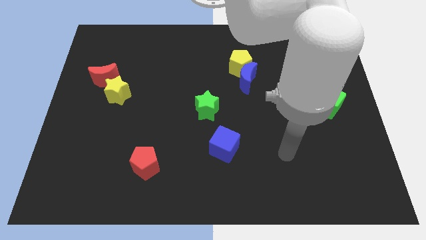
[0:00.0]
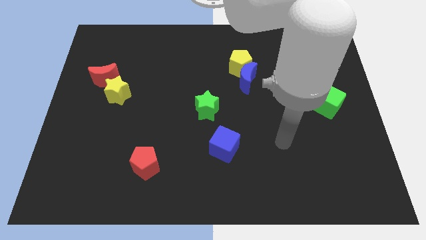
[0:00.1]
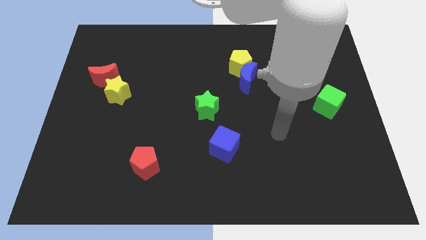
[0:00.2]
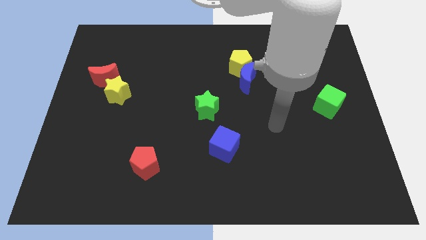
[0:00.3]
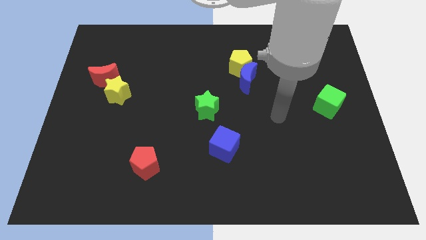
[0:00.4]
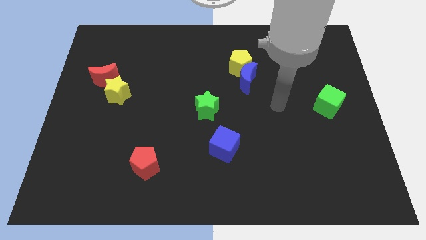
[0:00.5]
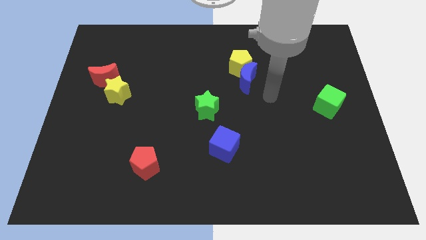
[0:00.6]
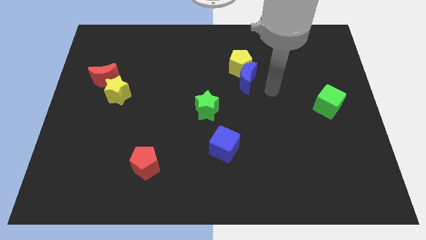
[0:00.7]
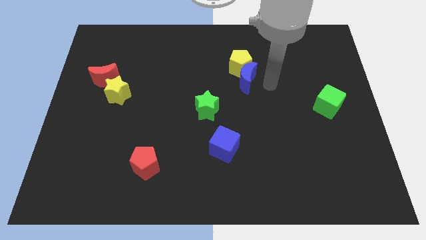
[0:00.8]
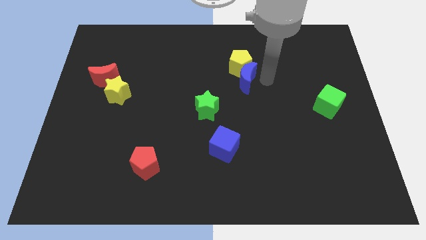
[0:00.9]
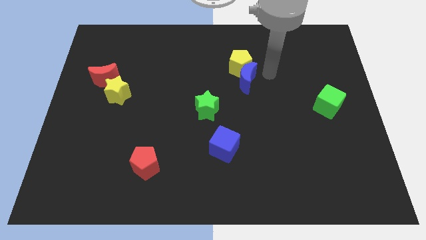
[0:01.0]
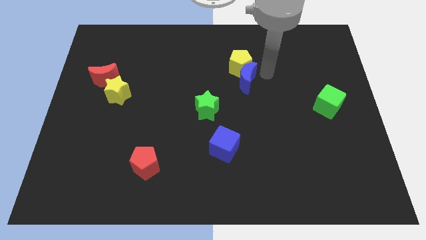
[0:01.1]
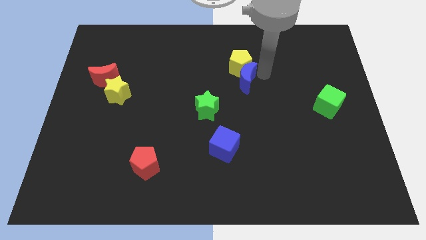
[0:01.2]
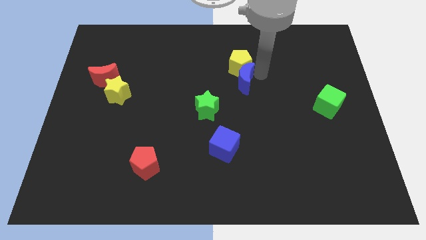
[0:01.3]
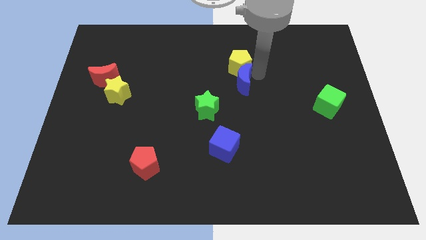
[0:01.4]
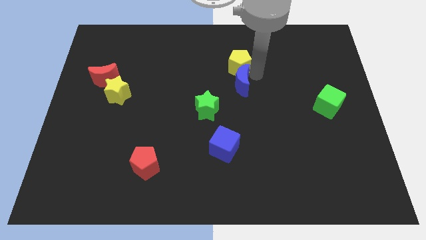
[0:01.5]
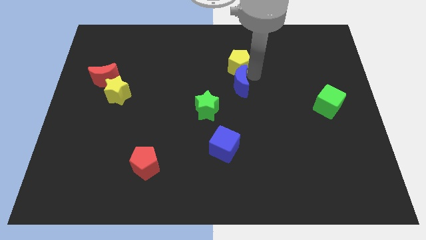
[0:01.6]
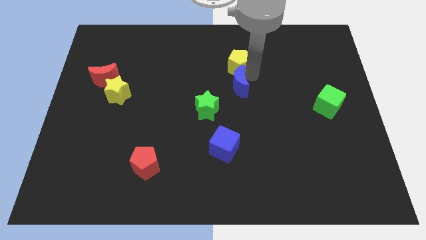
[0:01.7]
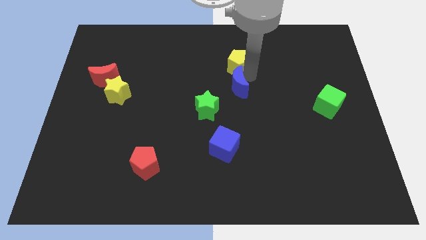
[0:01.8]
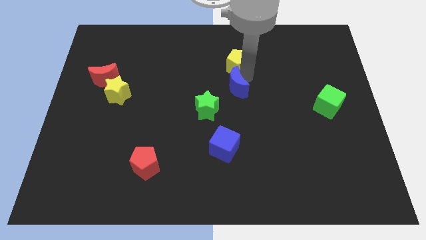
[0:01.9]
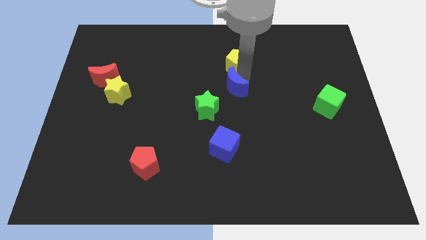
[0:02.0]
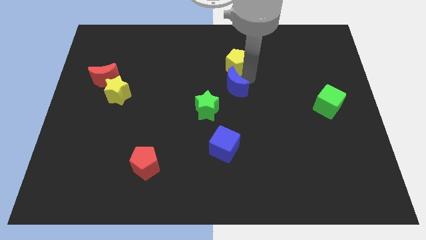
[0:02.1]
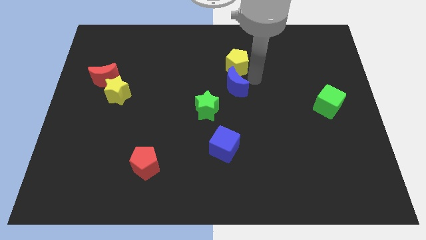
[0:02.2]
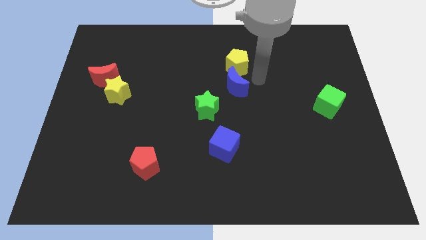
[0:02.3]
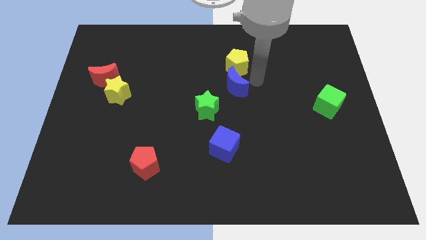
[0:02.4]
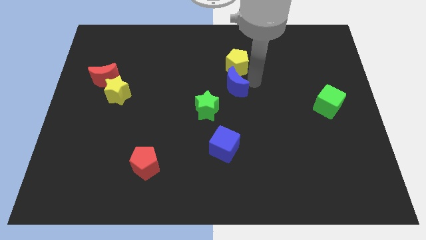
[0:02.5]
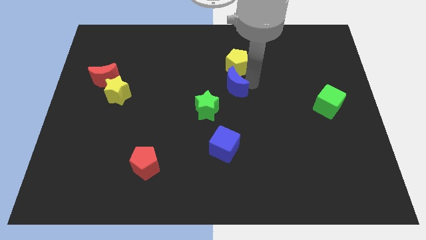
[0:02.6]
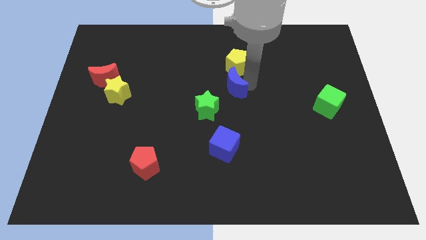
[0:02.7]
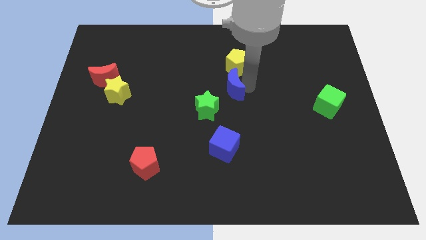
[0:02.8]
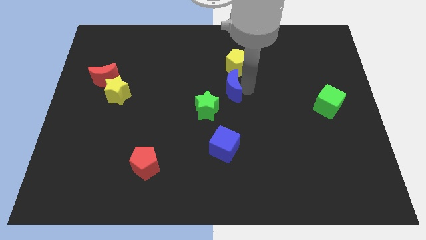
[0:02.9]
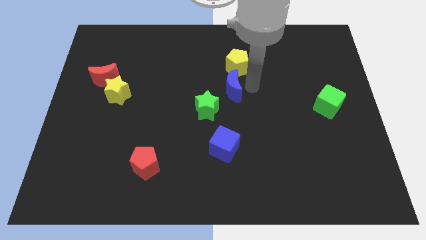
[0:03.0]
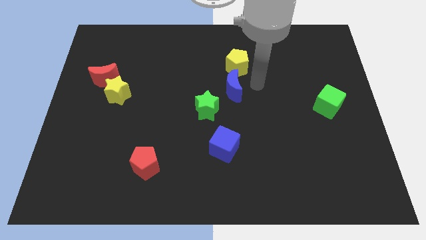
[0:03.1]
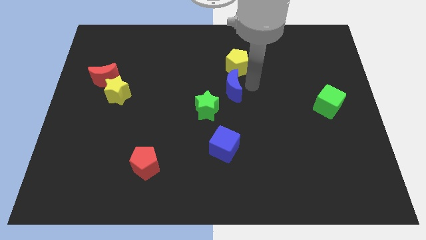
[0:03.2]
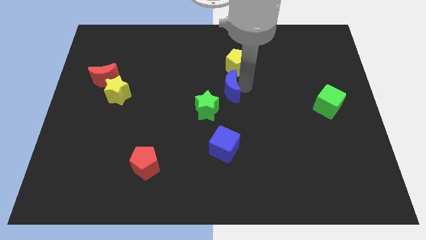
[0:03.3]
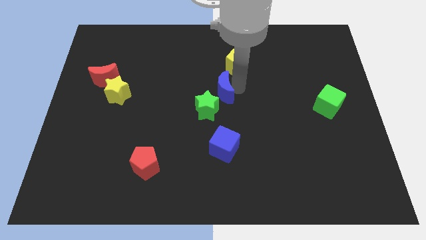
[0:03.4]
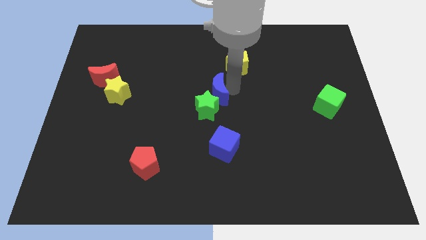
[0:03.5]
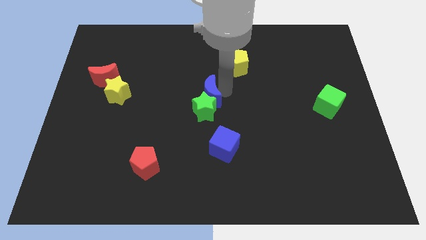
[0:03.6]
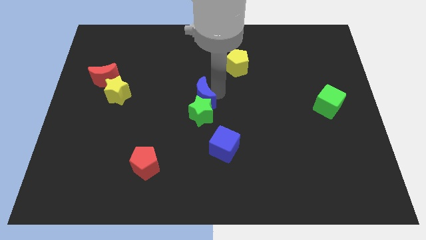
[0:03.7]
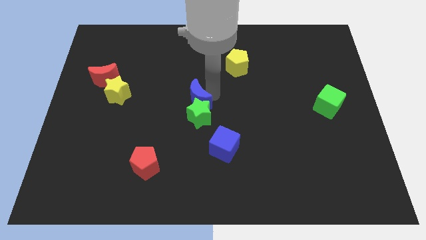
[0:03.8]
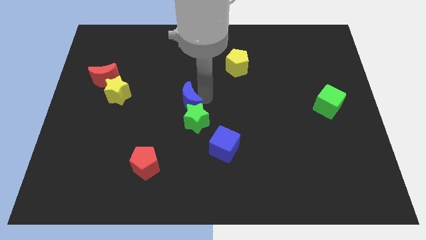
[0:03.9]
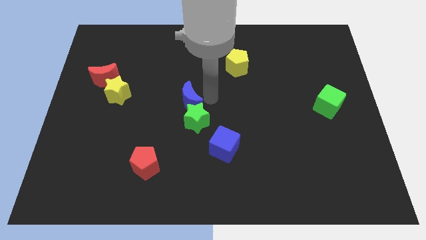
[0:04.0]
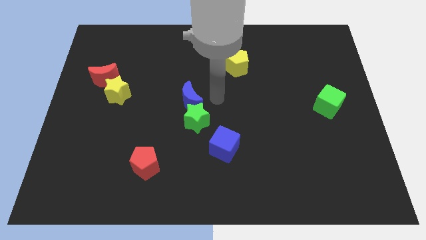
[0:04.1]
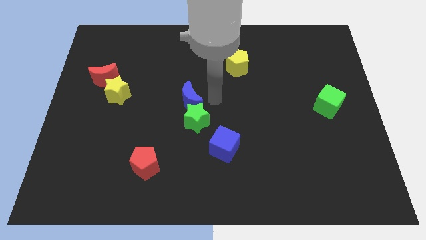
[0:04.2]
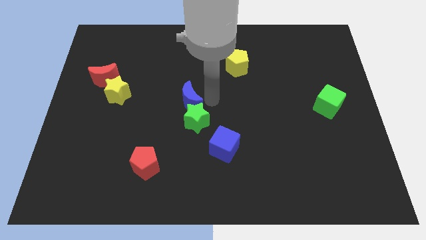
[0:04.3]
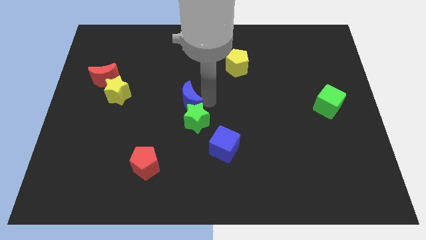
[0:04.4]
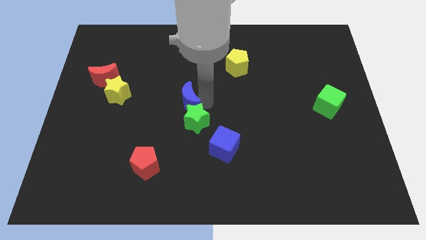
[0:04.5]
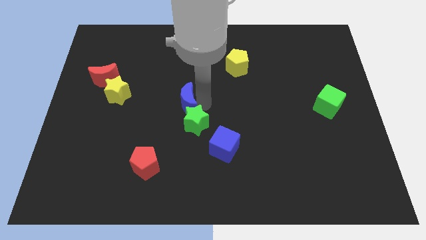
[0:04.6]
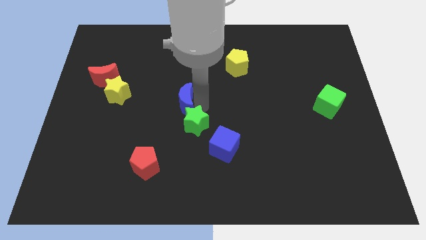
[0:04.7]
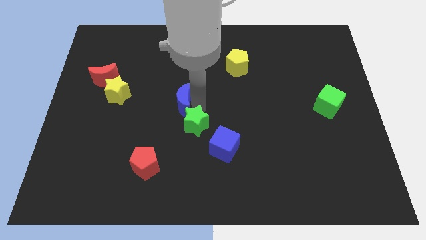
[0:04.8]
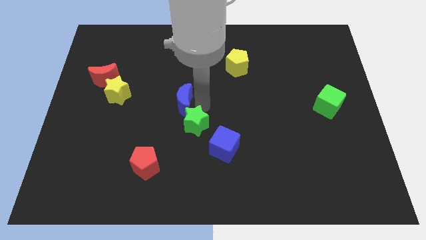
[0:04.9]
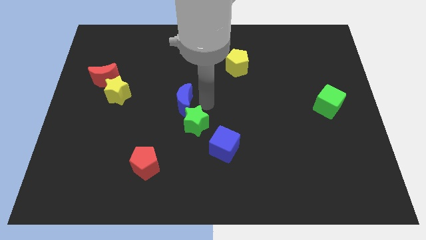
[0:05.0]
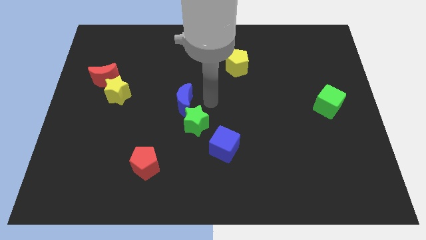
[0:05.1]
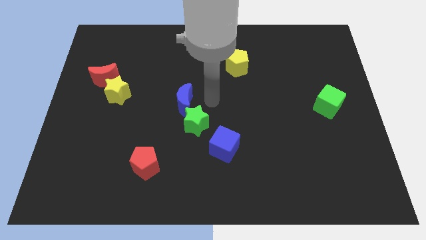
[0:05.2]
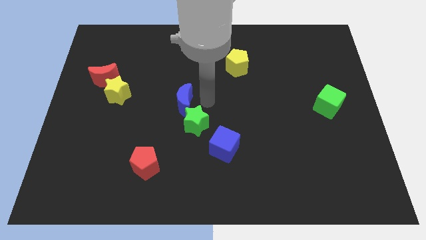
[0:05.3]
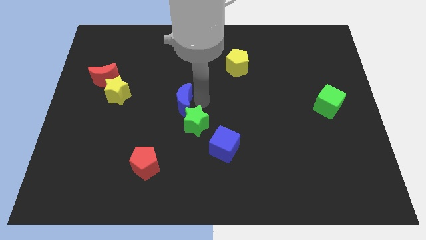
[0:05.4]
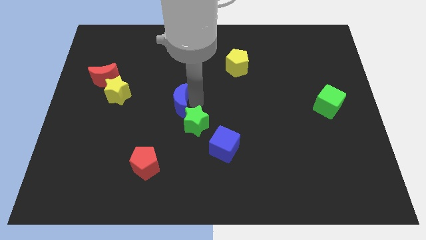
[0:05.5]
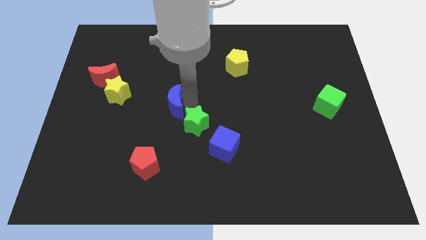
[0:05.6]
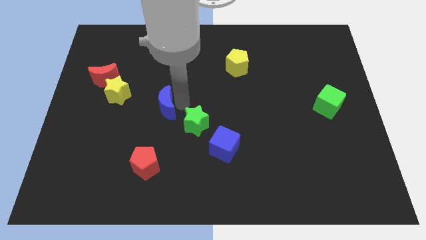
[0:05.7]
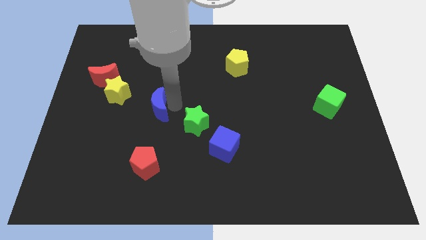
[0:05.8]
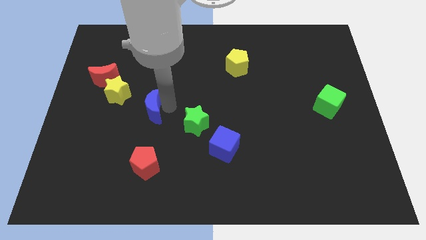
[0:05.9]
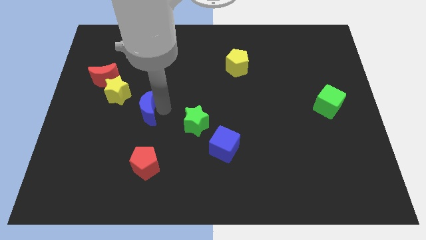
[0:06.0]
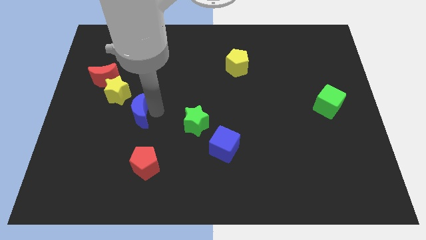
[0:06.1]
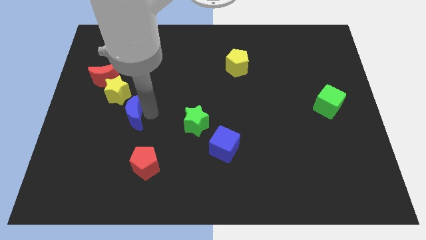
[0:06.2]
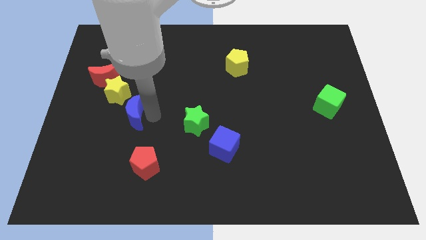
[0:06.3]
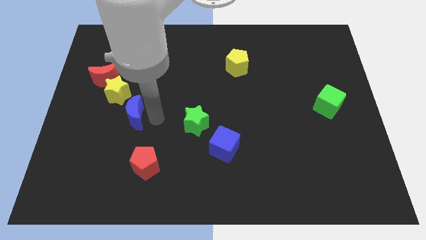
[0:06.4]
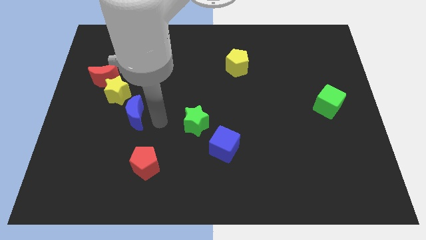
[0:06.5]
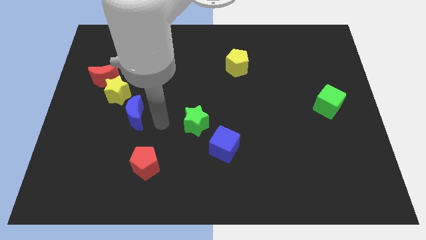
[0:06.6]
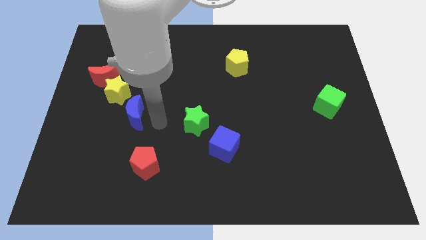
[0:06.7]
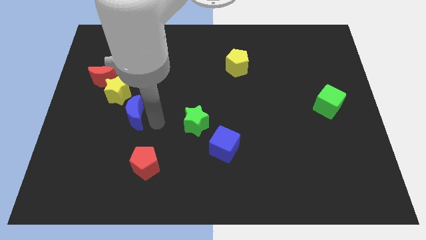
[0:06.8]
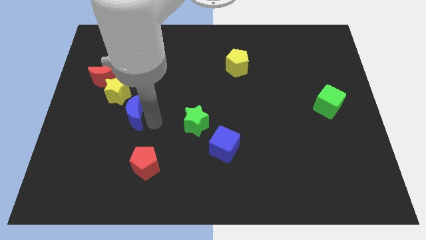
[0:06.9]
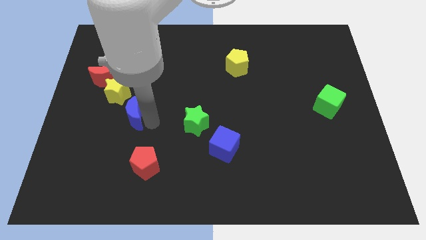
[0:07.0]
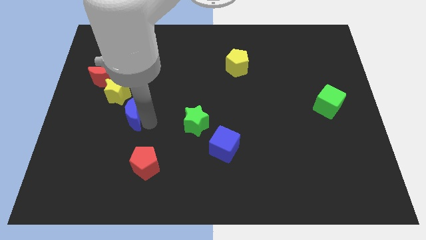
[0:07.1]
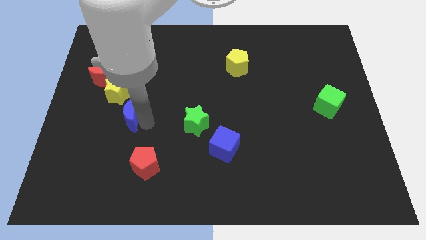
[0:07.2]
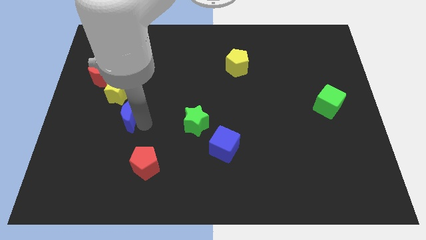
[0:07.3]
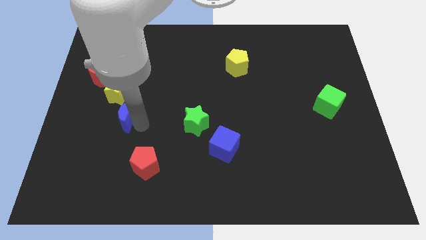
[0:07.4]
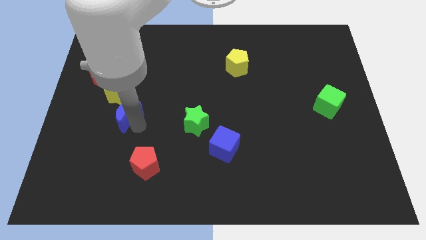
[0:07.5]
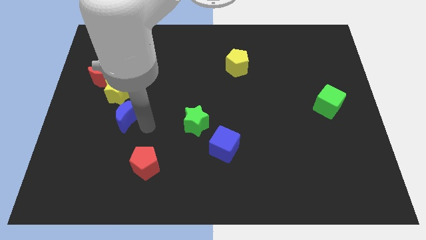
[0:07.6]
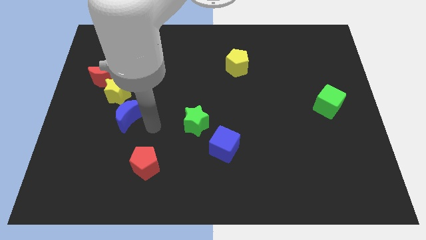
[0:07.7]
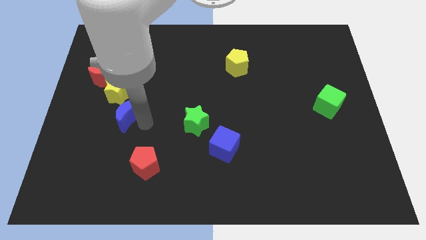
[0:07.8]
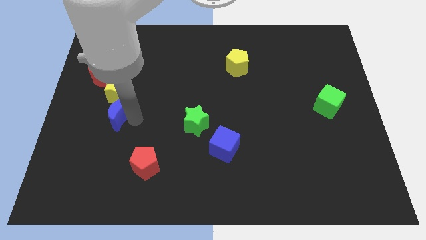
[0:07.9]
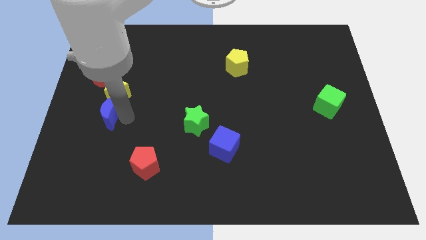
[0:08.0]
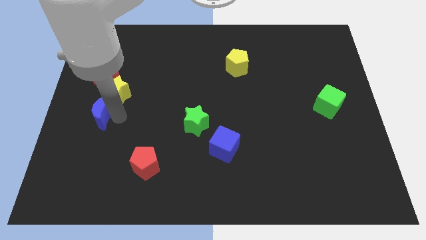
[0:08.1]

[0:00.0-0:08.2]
slide the blue moon to the center left
